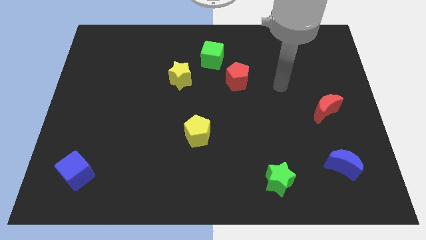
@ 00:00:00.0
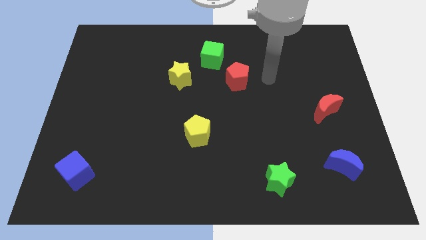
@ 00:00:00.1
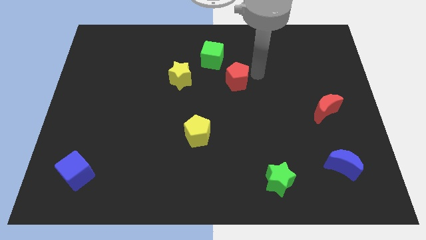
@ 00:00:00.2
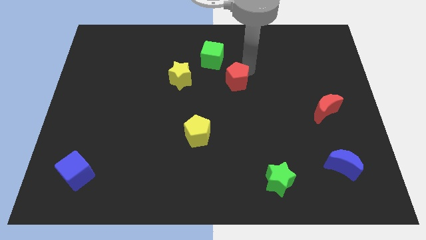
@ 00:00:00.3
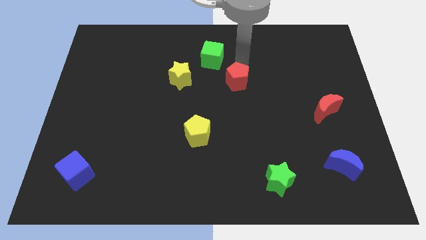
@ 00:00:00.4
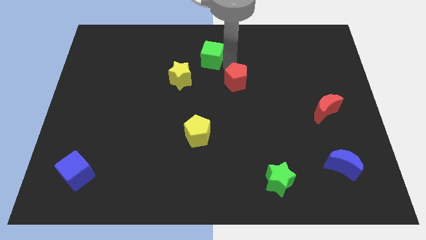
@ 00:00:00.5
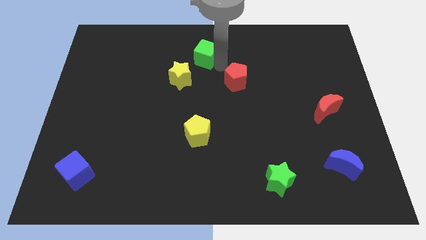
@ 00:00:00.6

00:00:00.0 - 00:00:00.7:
separate the red pentagon from the green cube

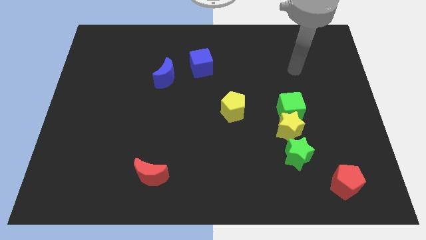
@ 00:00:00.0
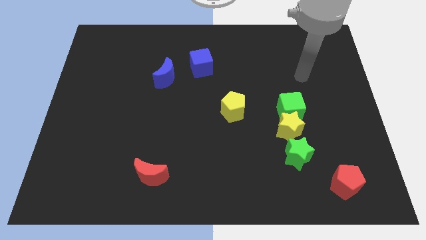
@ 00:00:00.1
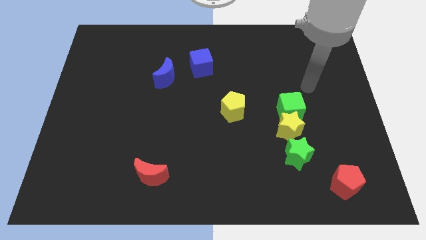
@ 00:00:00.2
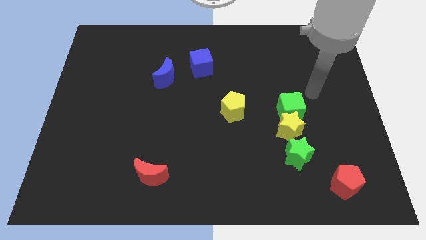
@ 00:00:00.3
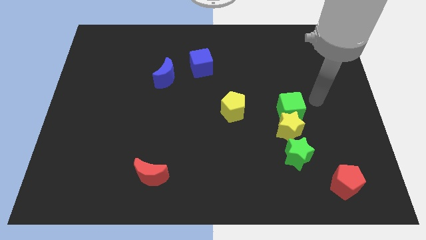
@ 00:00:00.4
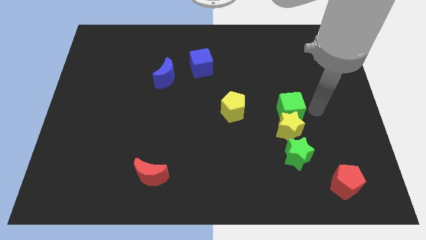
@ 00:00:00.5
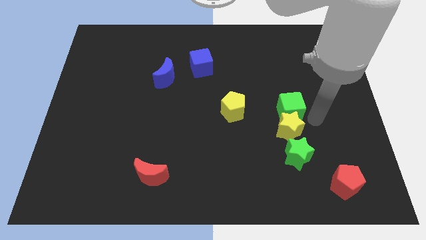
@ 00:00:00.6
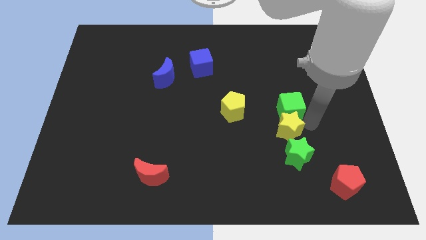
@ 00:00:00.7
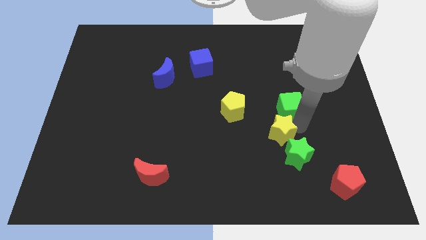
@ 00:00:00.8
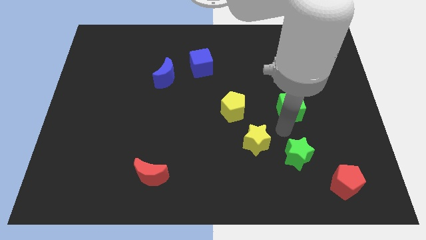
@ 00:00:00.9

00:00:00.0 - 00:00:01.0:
move the green cube away from the yellow star

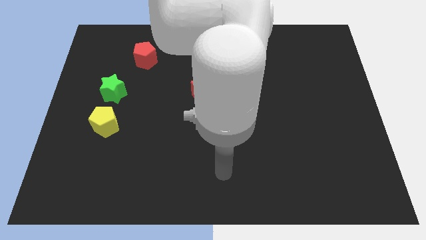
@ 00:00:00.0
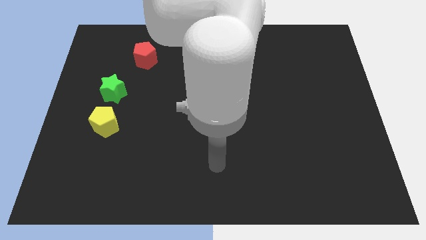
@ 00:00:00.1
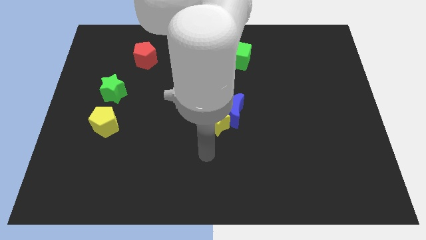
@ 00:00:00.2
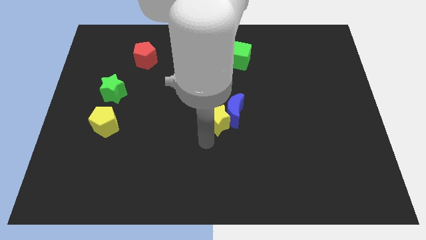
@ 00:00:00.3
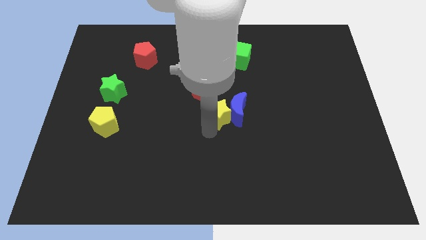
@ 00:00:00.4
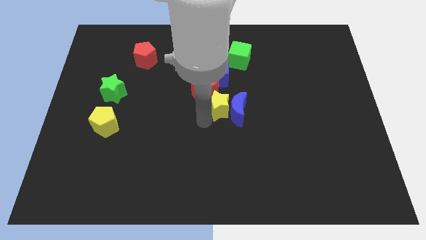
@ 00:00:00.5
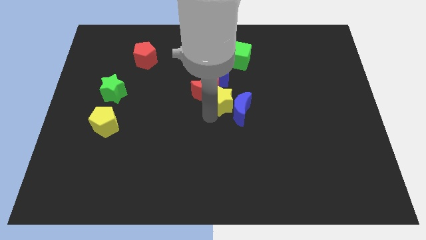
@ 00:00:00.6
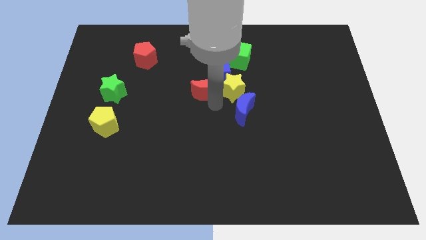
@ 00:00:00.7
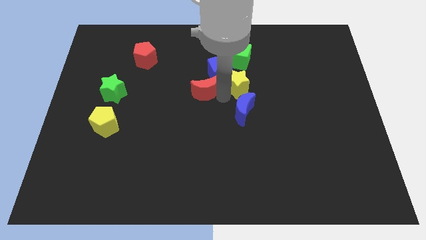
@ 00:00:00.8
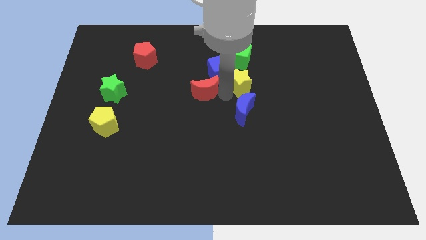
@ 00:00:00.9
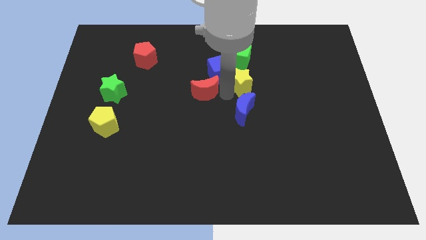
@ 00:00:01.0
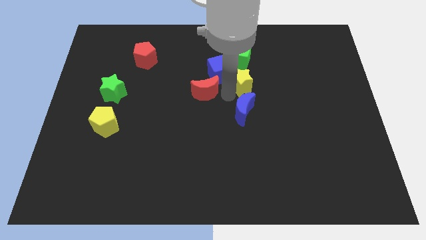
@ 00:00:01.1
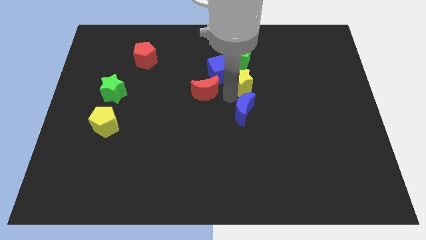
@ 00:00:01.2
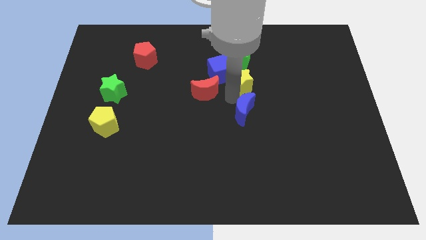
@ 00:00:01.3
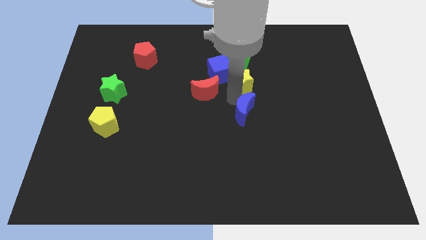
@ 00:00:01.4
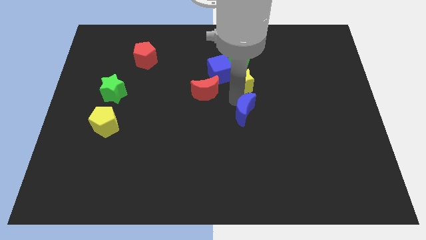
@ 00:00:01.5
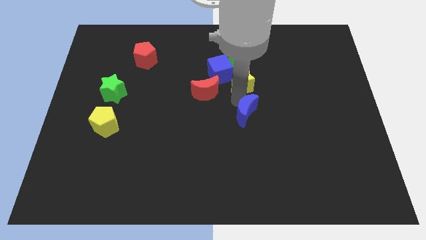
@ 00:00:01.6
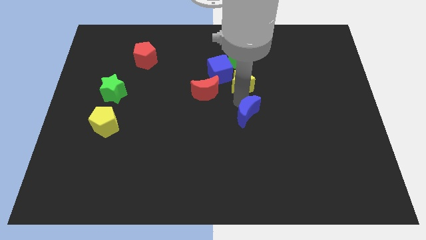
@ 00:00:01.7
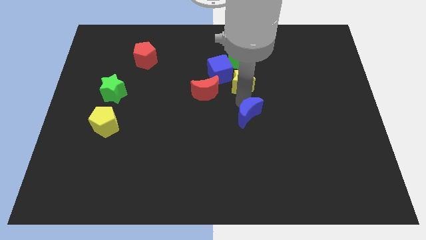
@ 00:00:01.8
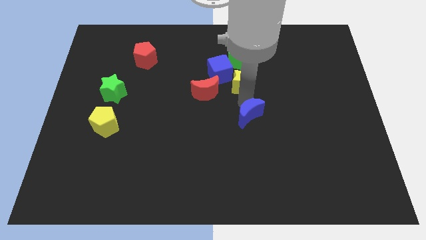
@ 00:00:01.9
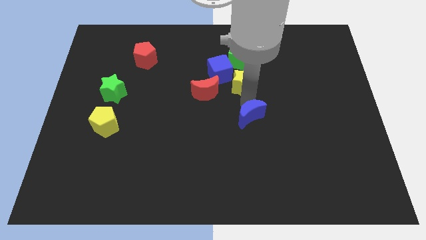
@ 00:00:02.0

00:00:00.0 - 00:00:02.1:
separate the blue moon from the yellow star and red moon

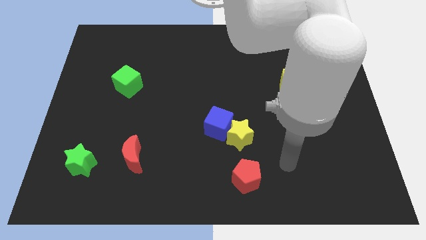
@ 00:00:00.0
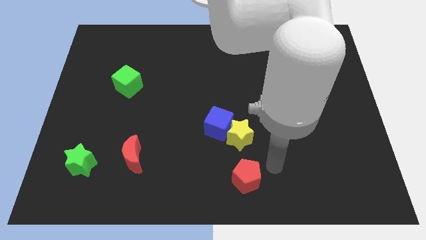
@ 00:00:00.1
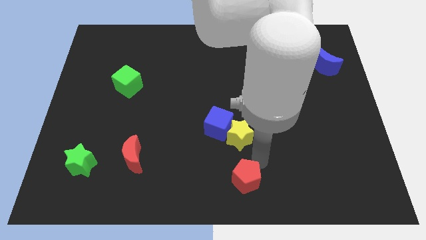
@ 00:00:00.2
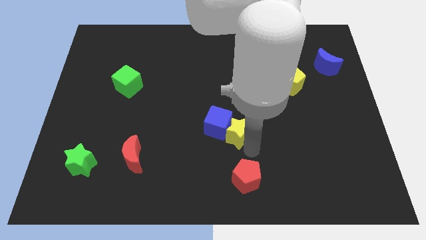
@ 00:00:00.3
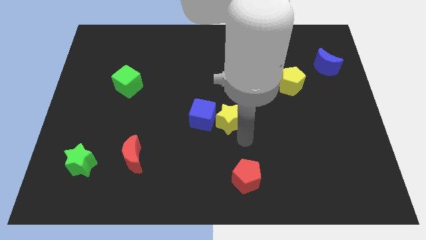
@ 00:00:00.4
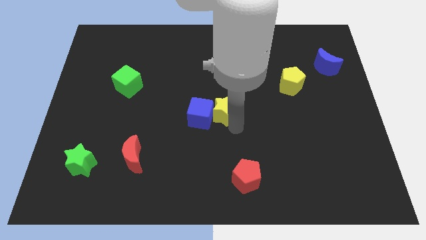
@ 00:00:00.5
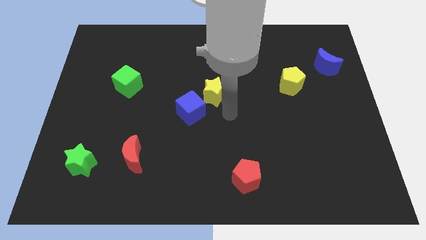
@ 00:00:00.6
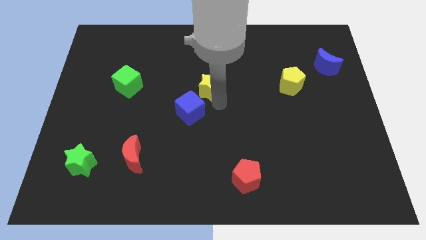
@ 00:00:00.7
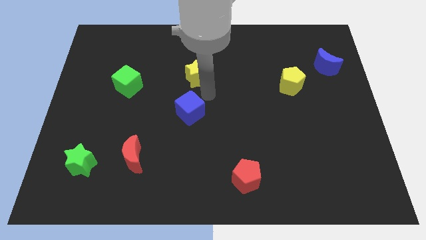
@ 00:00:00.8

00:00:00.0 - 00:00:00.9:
separate the blue cube from the yellow star

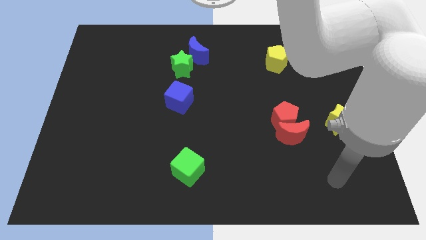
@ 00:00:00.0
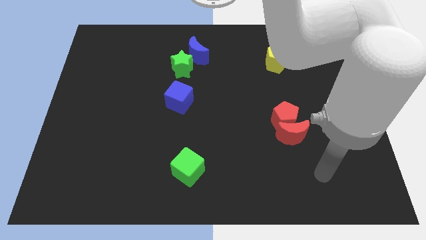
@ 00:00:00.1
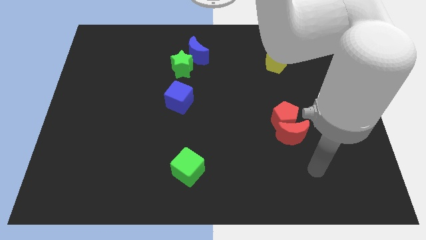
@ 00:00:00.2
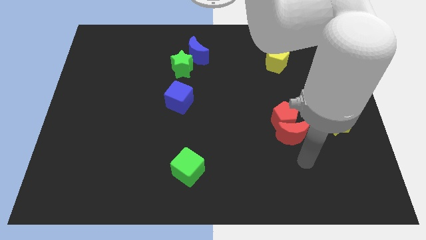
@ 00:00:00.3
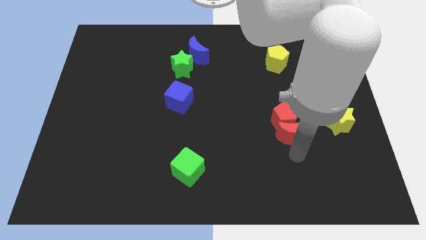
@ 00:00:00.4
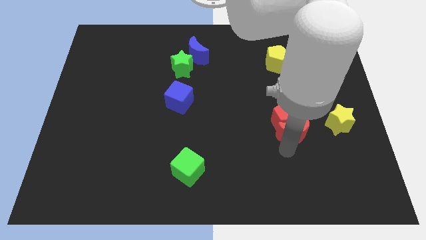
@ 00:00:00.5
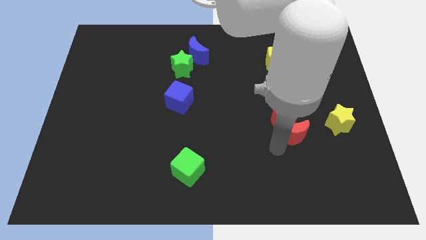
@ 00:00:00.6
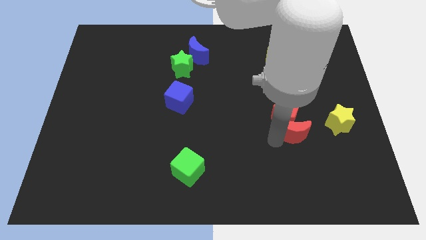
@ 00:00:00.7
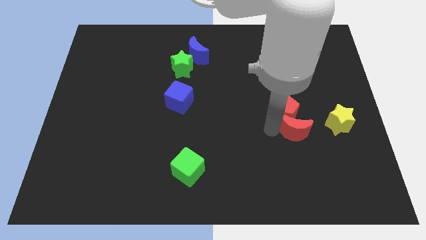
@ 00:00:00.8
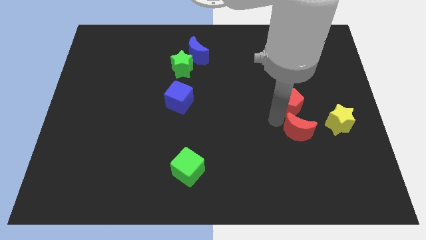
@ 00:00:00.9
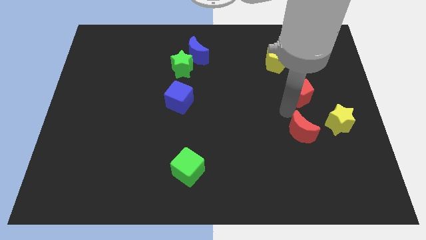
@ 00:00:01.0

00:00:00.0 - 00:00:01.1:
pull the red moon apart from the red pentagon

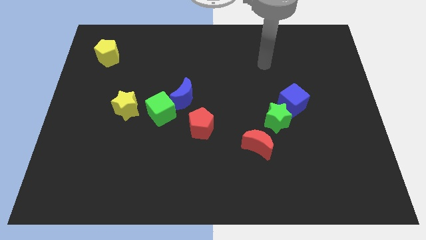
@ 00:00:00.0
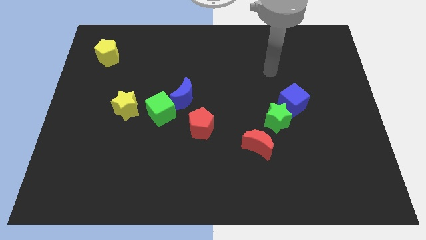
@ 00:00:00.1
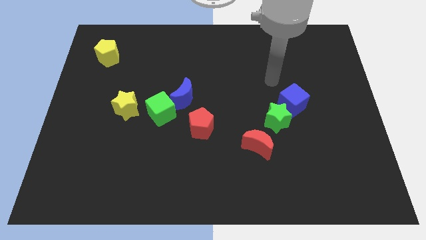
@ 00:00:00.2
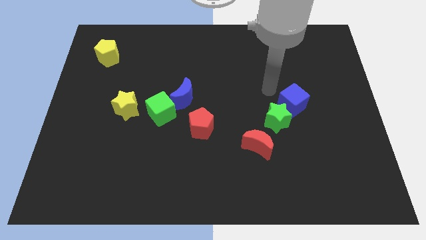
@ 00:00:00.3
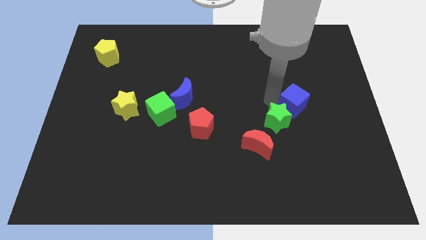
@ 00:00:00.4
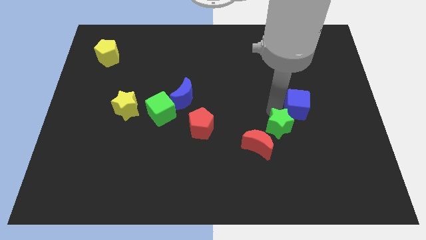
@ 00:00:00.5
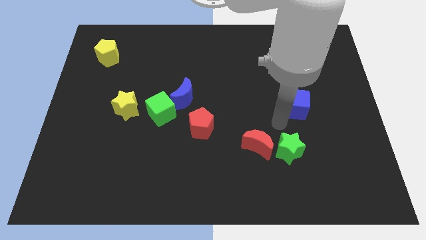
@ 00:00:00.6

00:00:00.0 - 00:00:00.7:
separate the blue cube from the green star

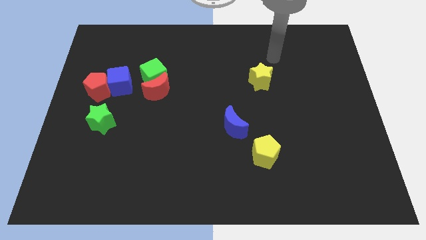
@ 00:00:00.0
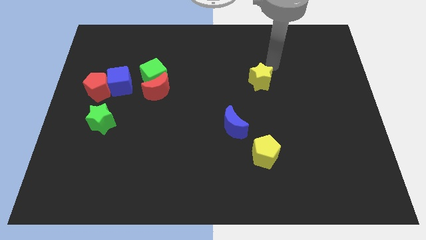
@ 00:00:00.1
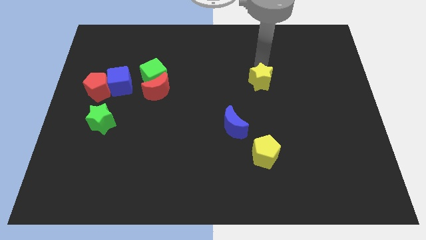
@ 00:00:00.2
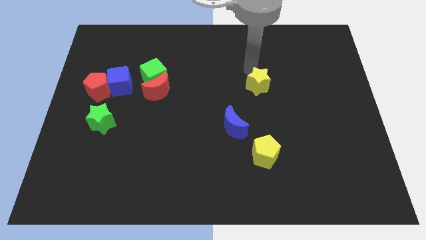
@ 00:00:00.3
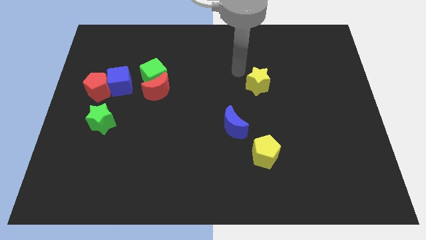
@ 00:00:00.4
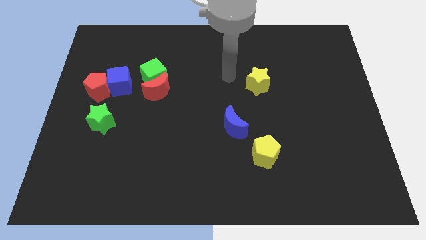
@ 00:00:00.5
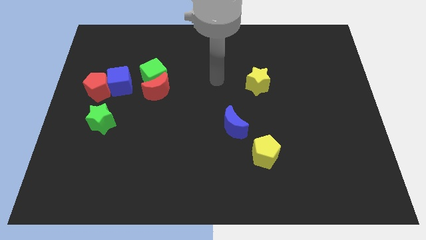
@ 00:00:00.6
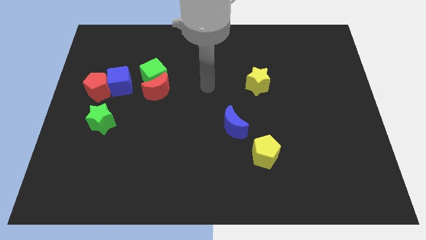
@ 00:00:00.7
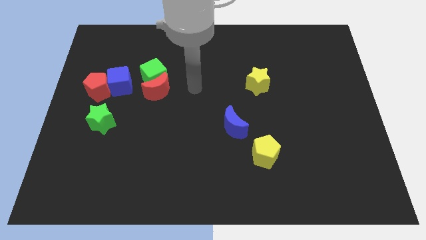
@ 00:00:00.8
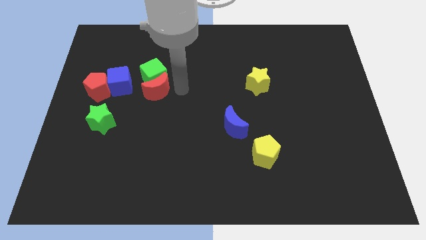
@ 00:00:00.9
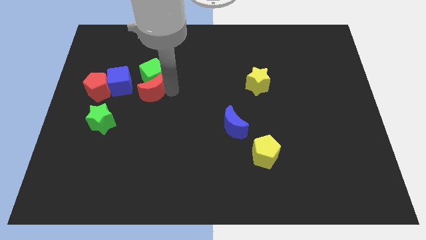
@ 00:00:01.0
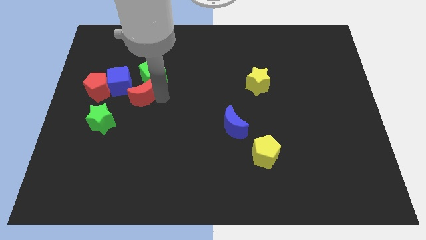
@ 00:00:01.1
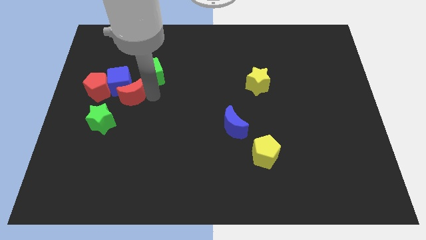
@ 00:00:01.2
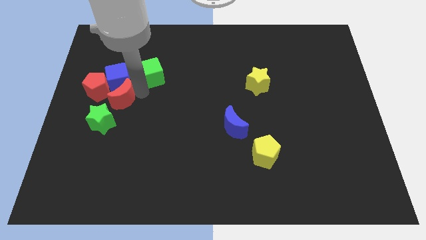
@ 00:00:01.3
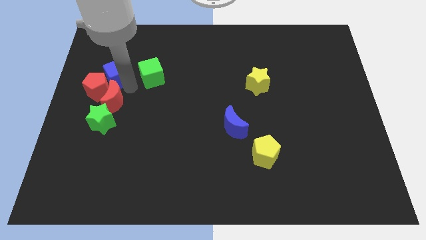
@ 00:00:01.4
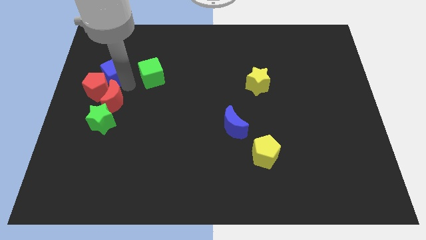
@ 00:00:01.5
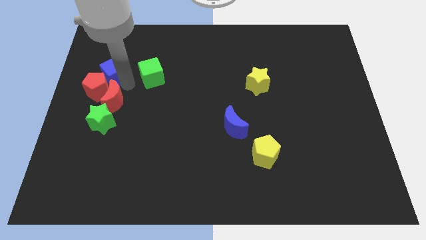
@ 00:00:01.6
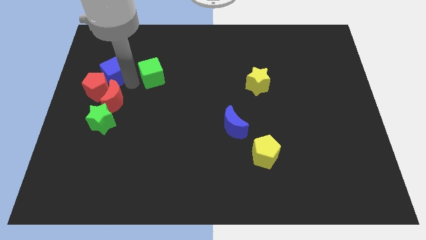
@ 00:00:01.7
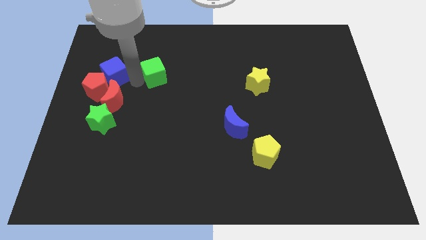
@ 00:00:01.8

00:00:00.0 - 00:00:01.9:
separate the green cube from the red moon and blue cube

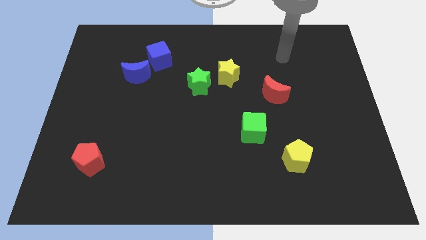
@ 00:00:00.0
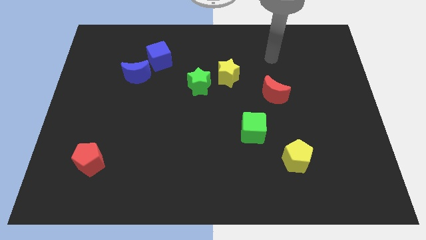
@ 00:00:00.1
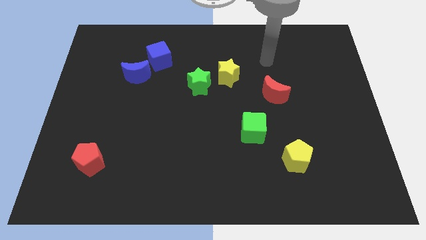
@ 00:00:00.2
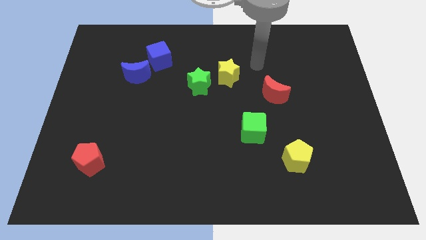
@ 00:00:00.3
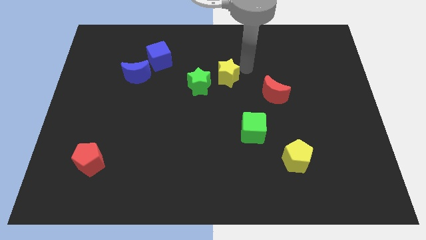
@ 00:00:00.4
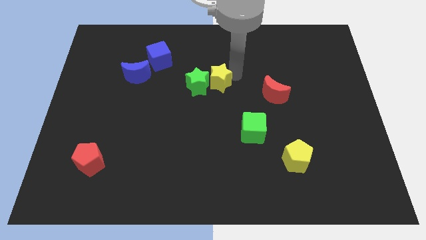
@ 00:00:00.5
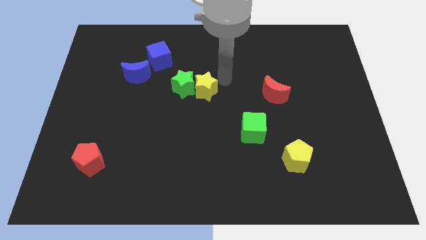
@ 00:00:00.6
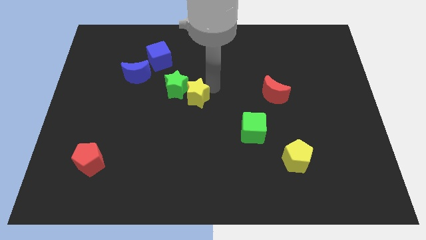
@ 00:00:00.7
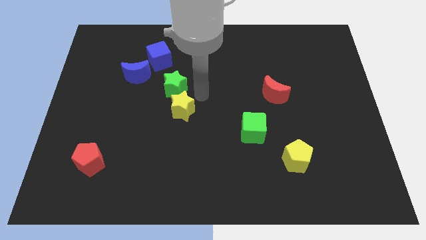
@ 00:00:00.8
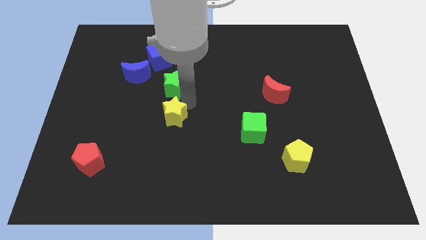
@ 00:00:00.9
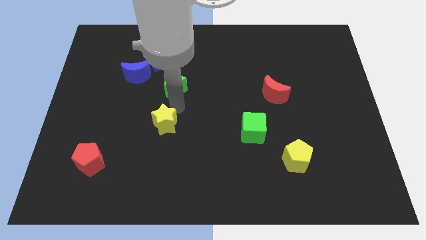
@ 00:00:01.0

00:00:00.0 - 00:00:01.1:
separate the green star from the yellow star
